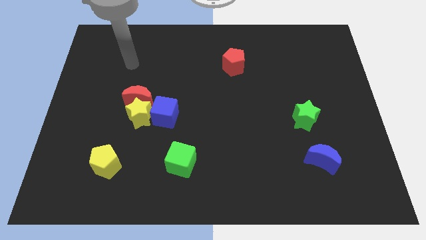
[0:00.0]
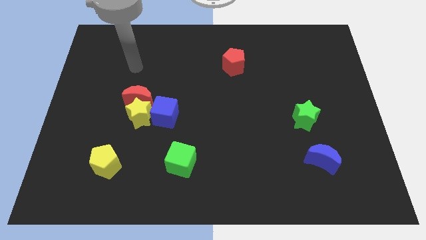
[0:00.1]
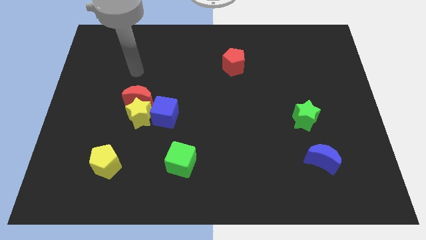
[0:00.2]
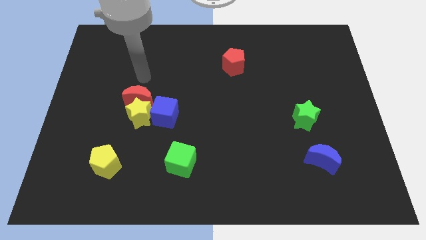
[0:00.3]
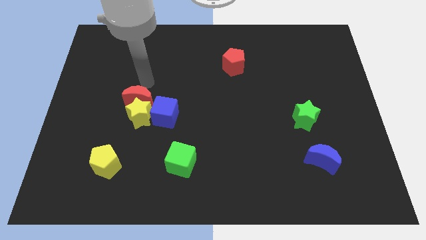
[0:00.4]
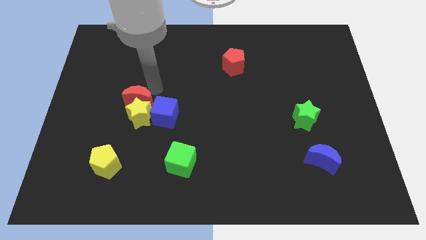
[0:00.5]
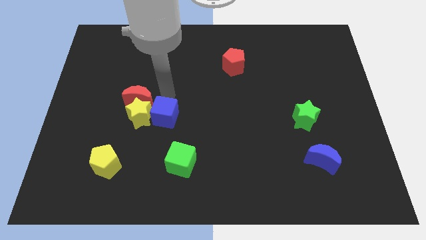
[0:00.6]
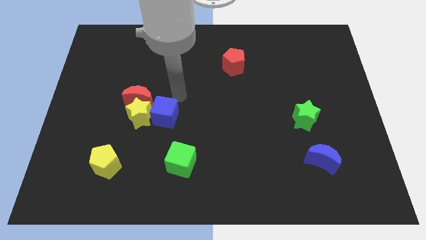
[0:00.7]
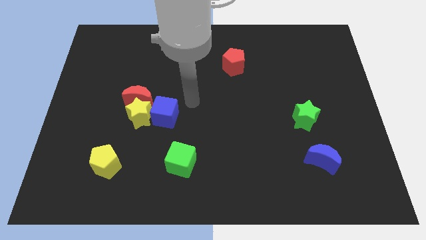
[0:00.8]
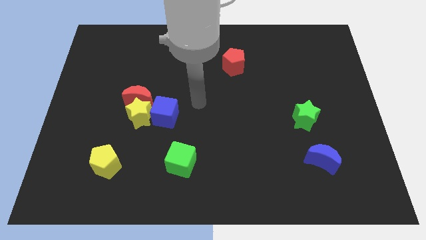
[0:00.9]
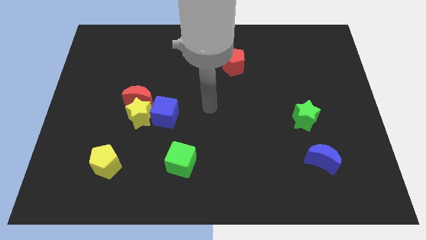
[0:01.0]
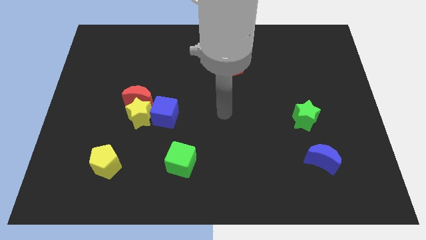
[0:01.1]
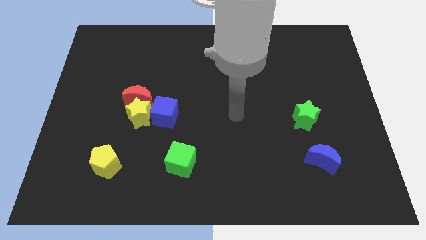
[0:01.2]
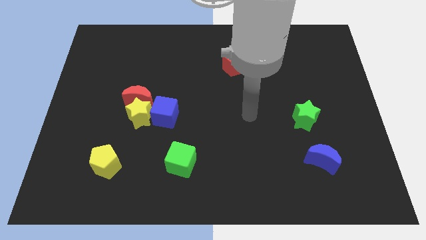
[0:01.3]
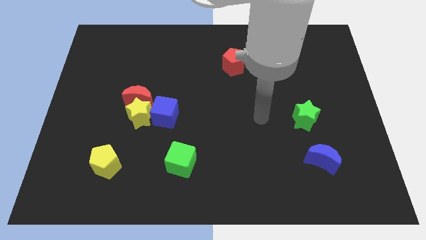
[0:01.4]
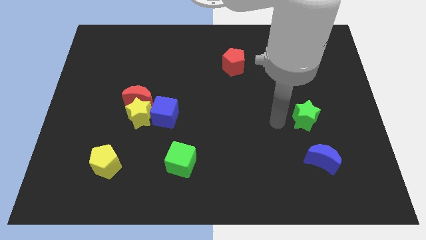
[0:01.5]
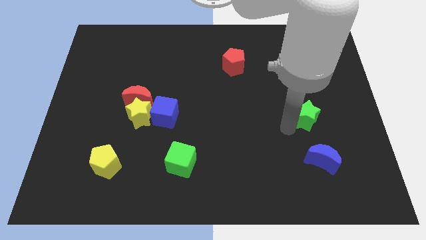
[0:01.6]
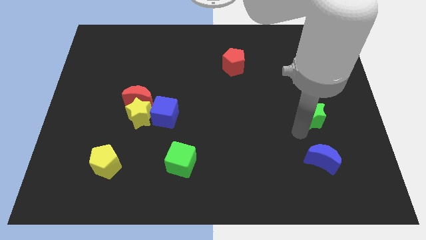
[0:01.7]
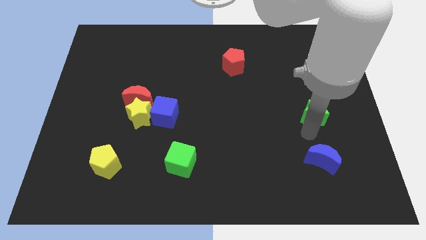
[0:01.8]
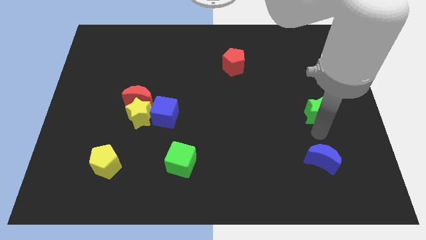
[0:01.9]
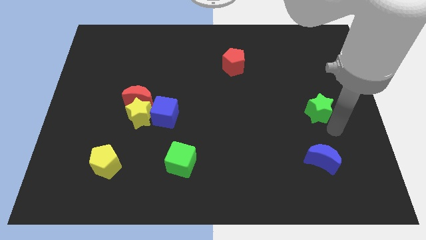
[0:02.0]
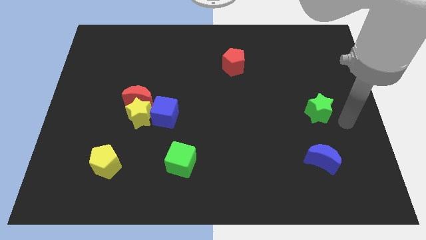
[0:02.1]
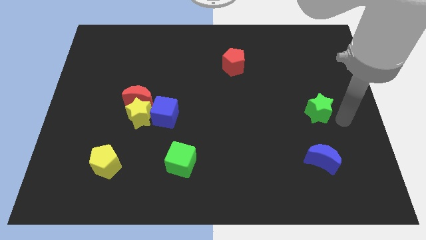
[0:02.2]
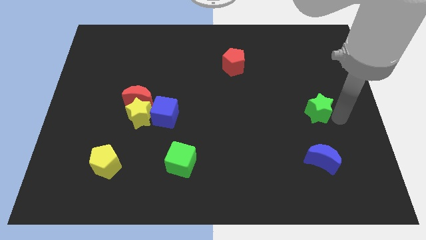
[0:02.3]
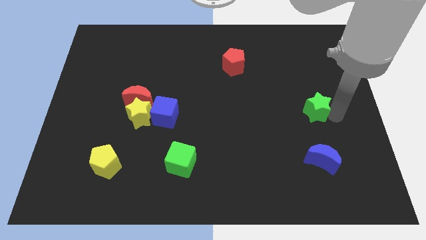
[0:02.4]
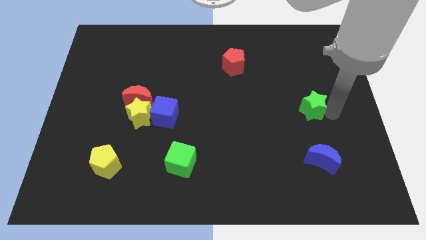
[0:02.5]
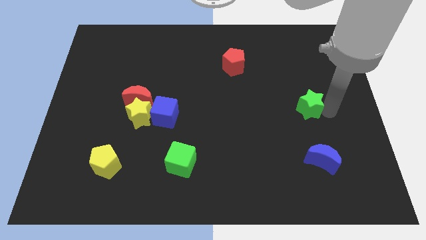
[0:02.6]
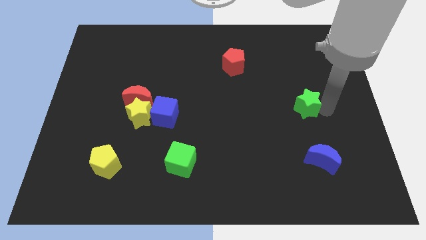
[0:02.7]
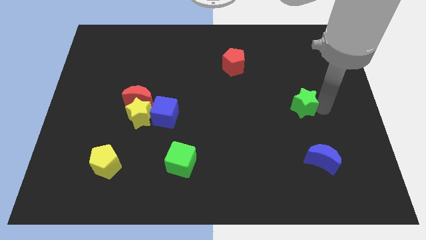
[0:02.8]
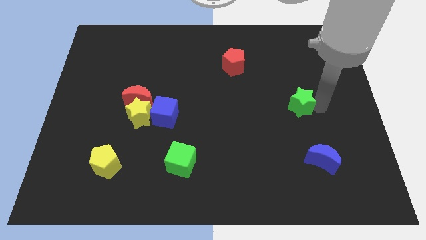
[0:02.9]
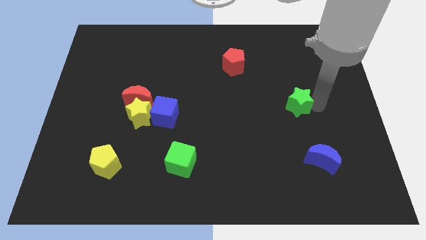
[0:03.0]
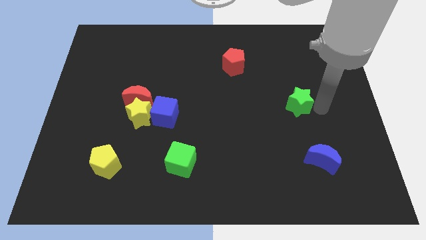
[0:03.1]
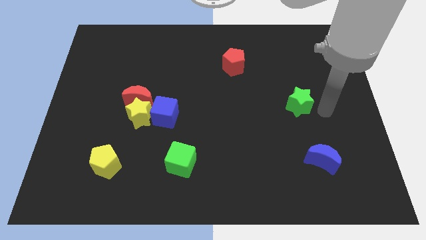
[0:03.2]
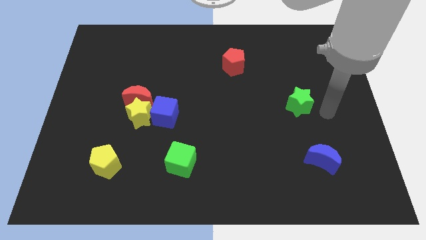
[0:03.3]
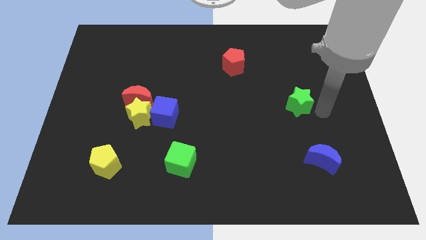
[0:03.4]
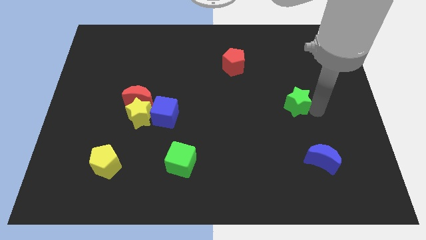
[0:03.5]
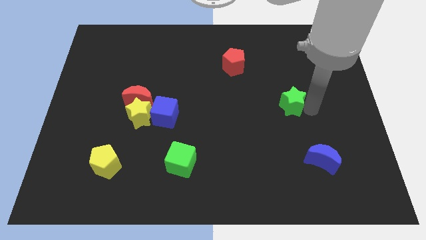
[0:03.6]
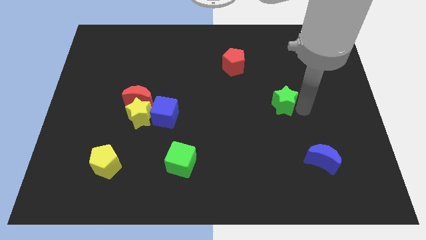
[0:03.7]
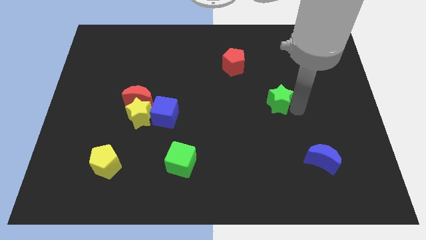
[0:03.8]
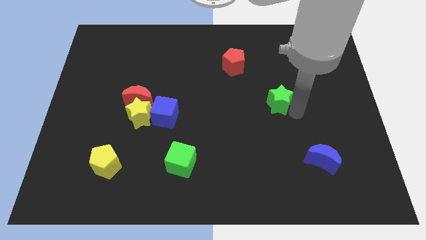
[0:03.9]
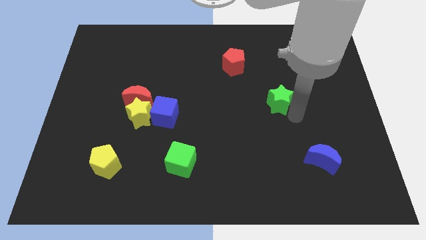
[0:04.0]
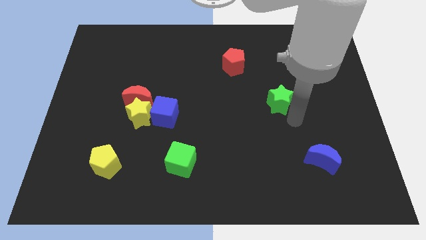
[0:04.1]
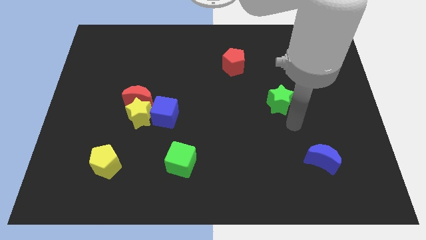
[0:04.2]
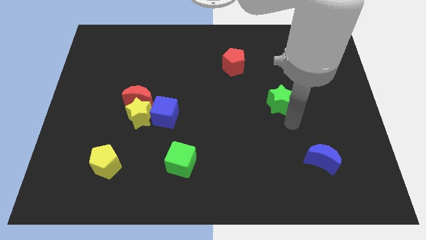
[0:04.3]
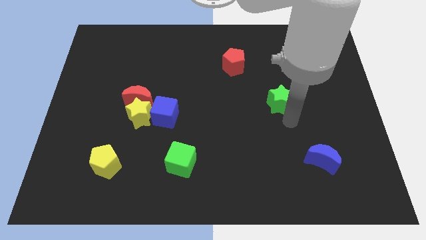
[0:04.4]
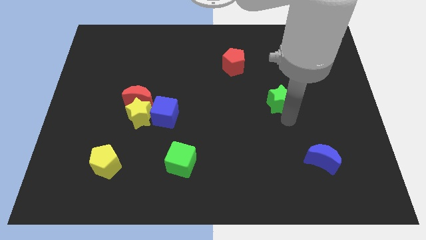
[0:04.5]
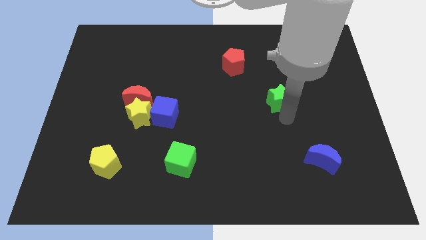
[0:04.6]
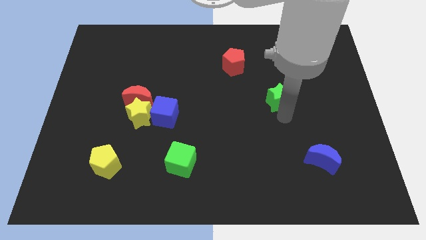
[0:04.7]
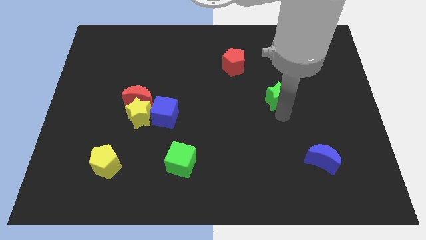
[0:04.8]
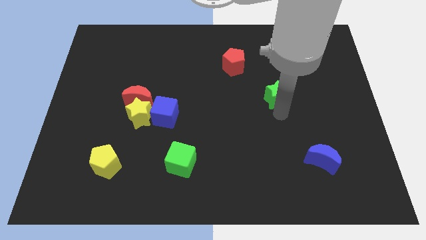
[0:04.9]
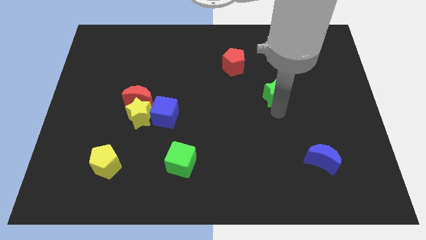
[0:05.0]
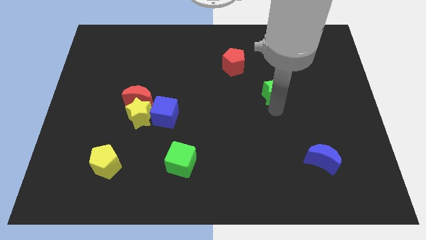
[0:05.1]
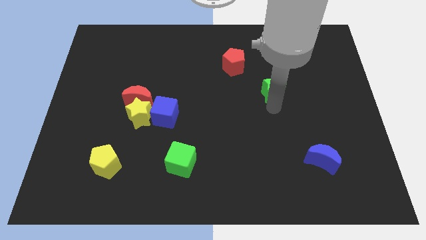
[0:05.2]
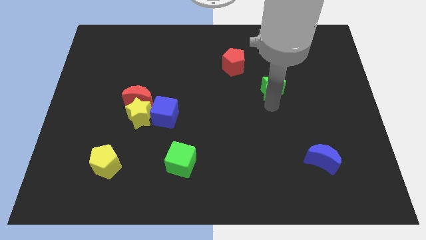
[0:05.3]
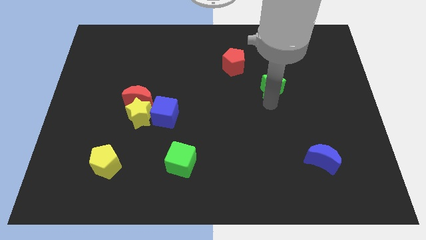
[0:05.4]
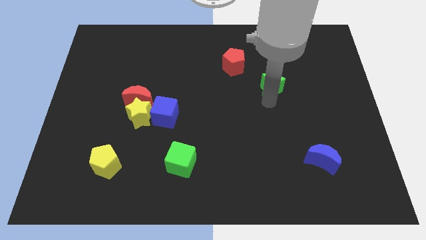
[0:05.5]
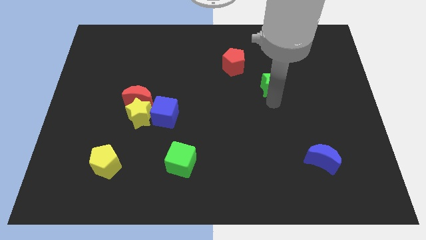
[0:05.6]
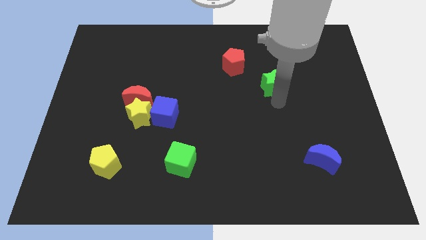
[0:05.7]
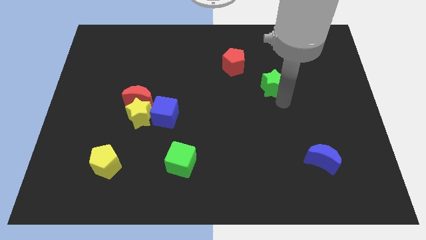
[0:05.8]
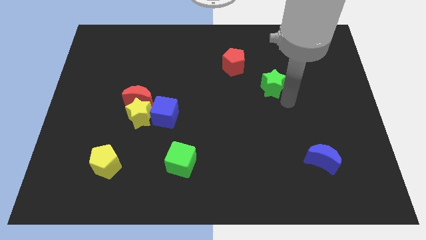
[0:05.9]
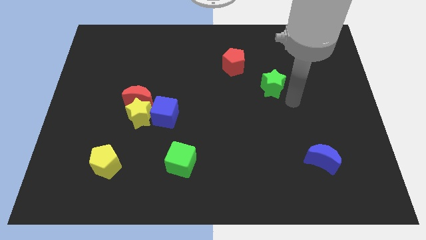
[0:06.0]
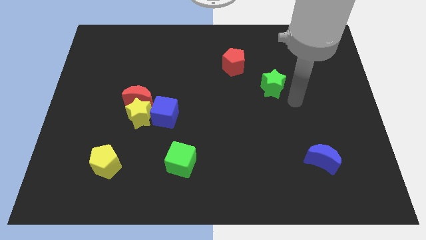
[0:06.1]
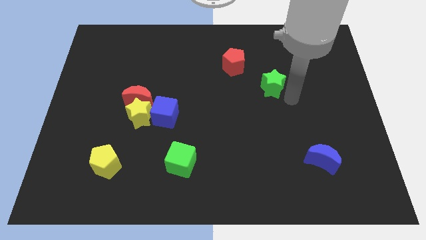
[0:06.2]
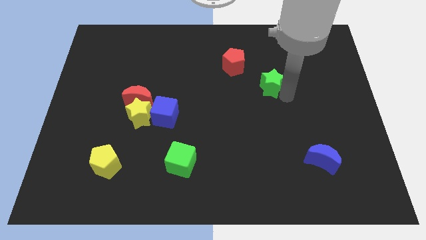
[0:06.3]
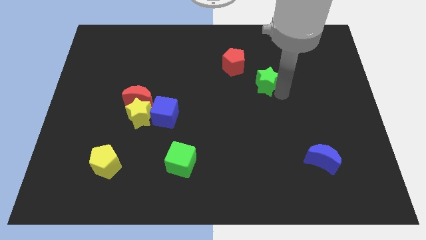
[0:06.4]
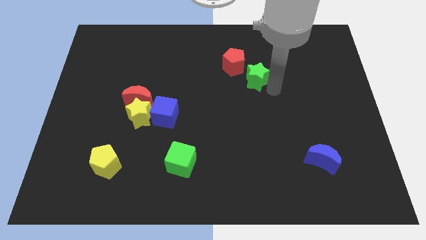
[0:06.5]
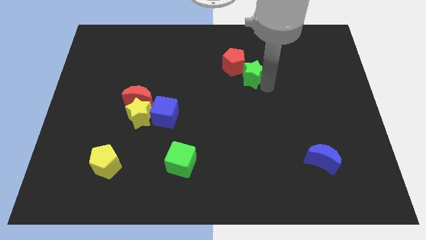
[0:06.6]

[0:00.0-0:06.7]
push the green star towards the red pentagon
